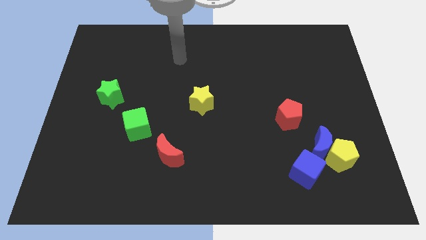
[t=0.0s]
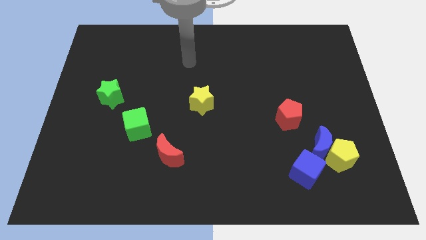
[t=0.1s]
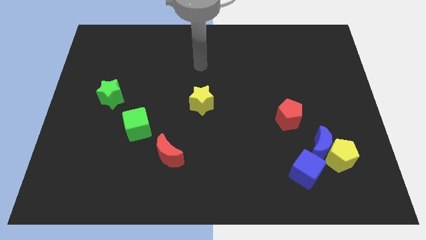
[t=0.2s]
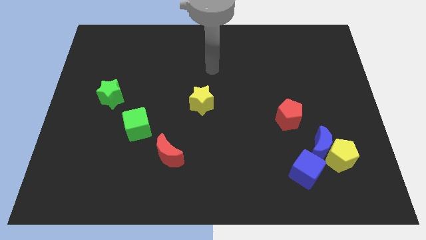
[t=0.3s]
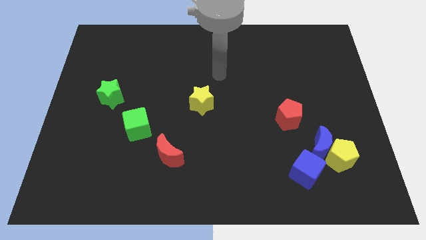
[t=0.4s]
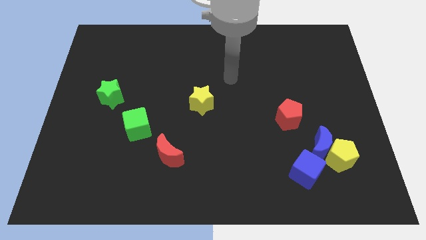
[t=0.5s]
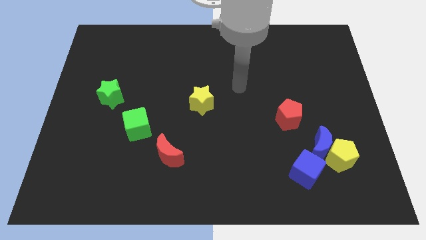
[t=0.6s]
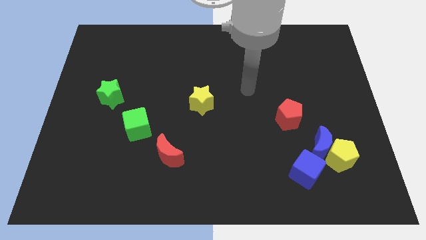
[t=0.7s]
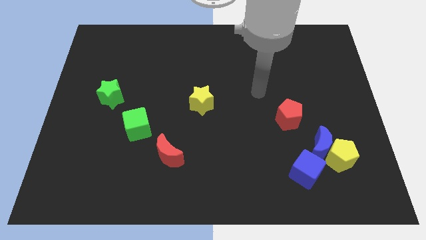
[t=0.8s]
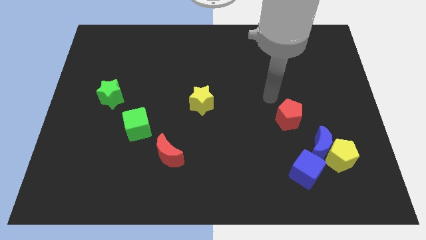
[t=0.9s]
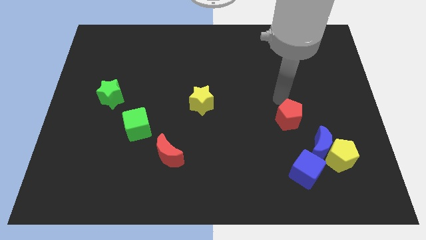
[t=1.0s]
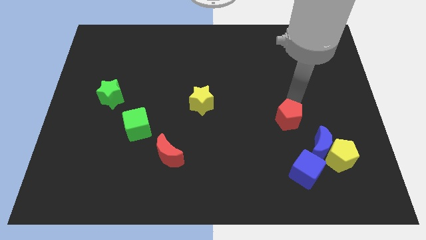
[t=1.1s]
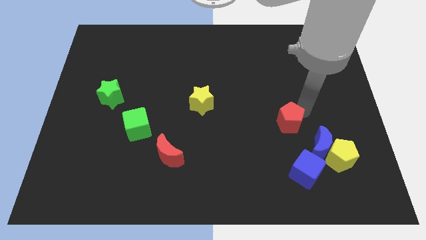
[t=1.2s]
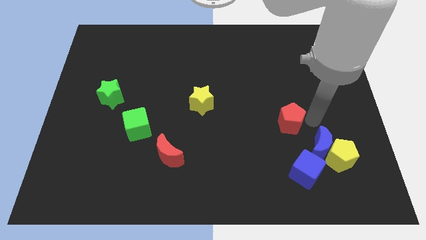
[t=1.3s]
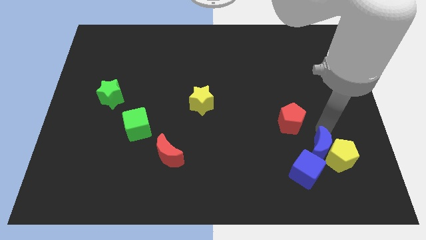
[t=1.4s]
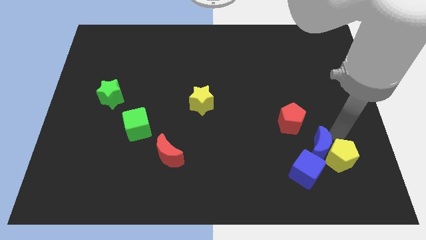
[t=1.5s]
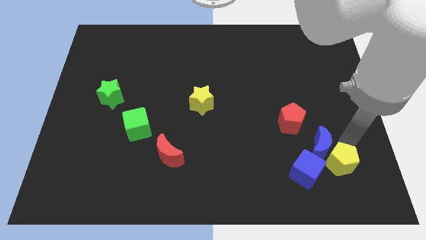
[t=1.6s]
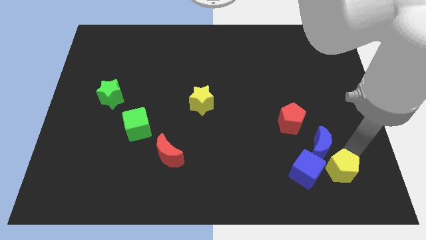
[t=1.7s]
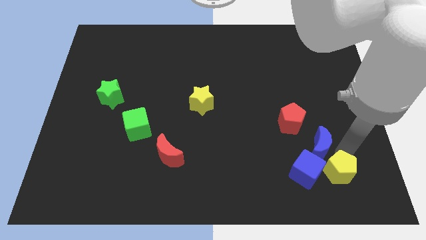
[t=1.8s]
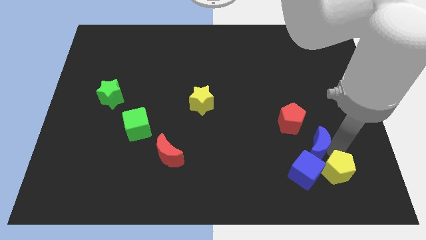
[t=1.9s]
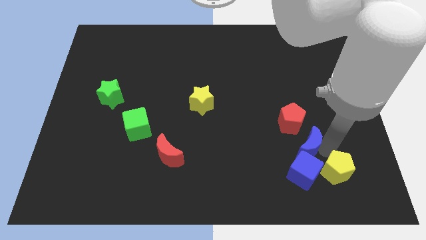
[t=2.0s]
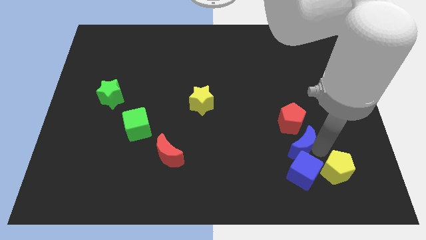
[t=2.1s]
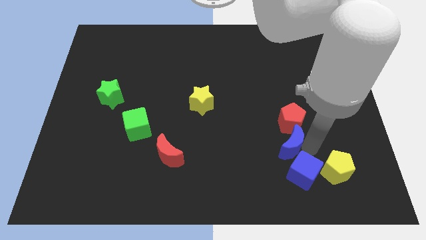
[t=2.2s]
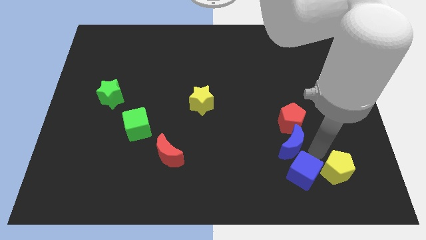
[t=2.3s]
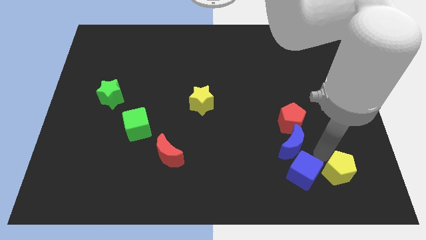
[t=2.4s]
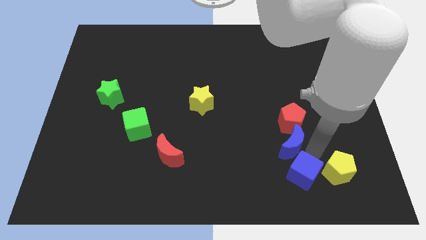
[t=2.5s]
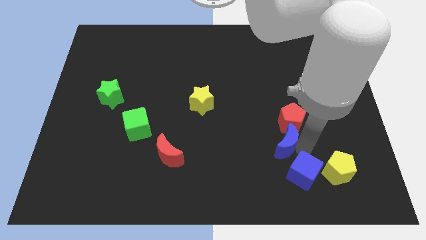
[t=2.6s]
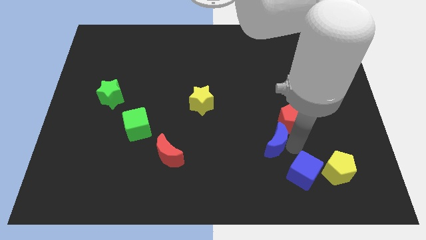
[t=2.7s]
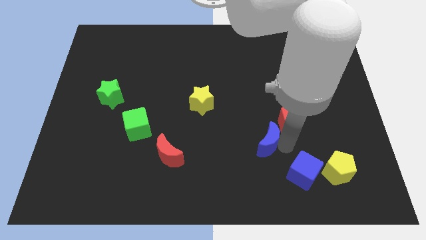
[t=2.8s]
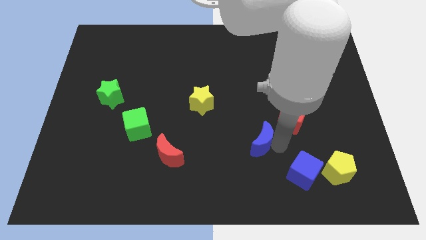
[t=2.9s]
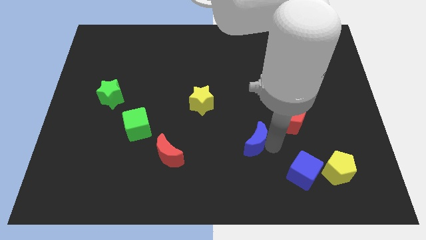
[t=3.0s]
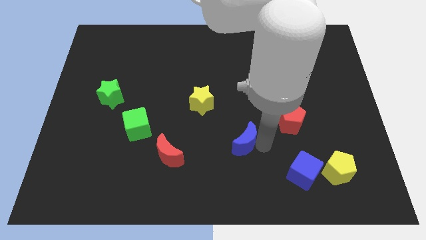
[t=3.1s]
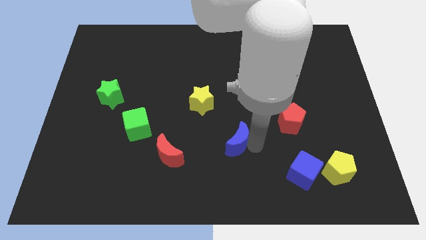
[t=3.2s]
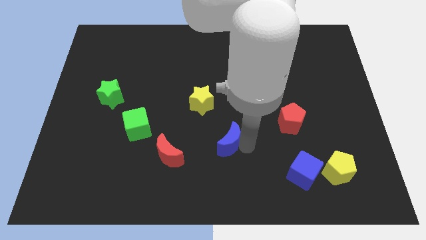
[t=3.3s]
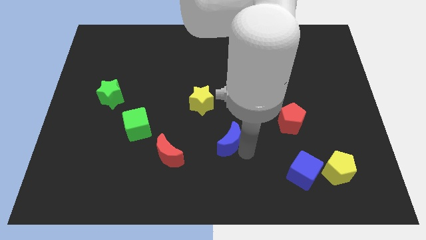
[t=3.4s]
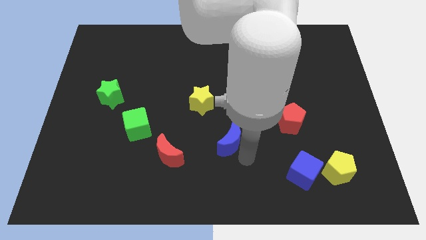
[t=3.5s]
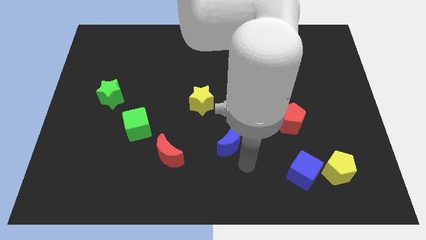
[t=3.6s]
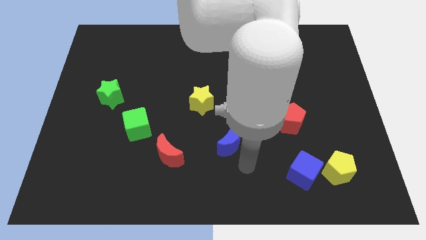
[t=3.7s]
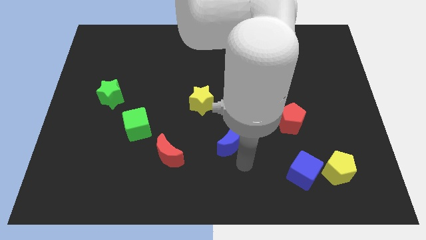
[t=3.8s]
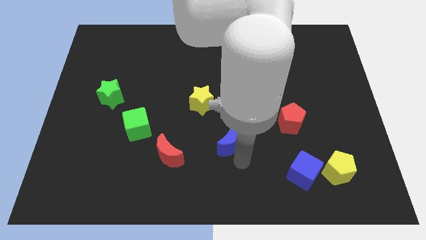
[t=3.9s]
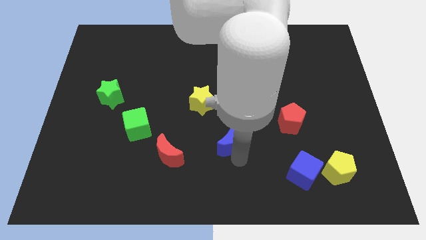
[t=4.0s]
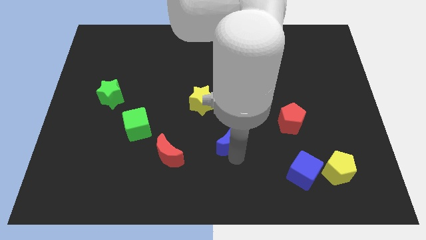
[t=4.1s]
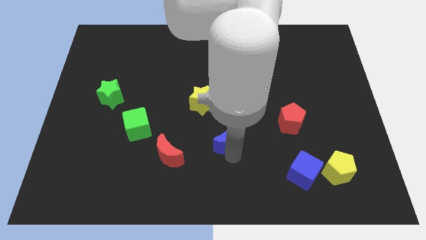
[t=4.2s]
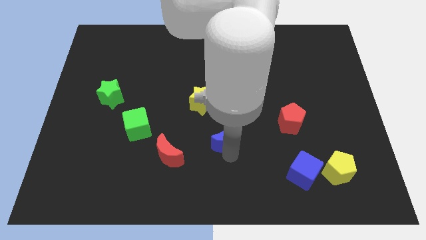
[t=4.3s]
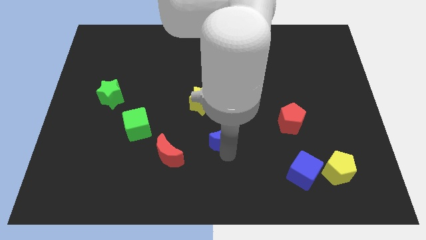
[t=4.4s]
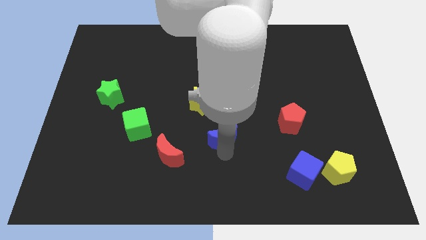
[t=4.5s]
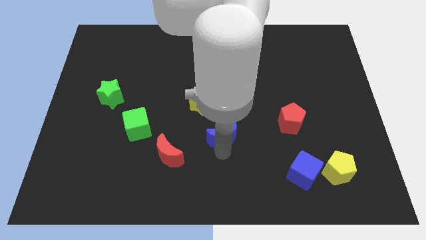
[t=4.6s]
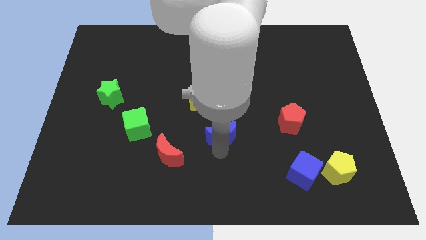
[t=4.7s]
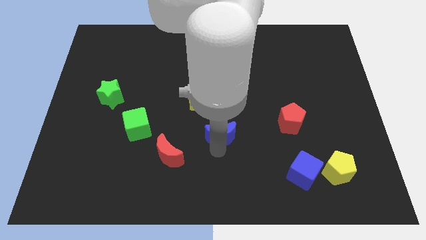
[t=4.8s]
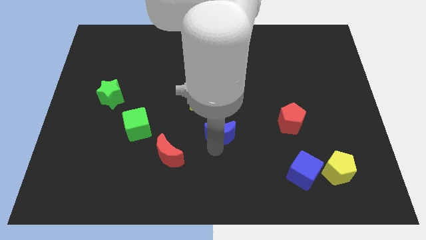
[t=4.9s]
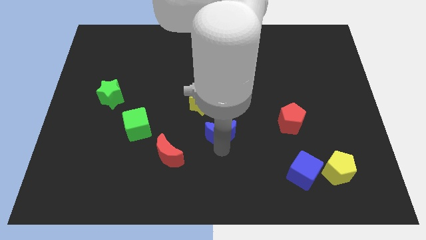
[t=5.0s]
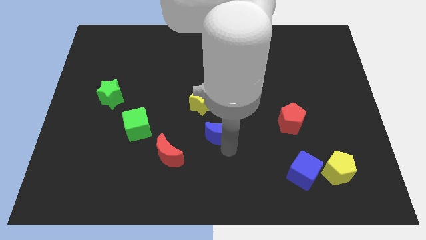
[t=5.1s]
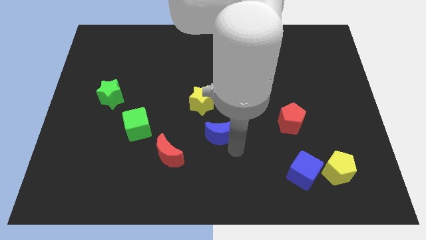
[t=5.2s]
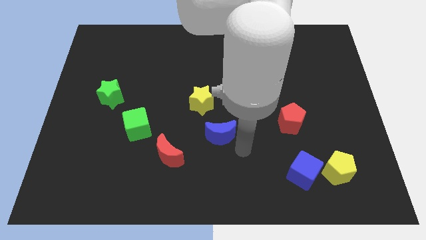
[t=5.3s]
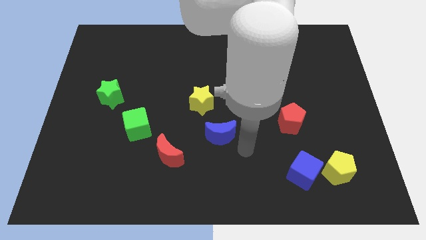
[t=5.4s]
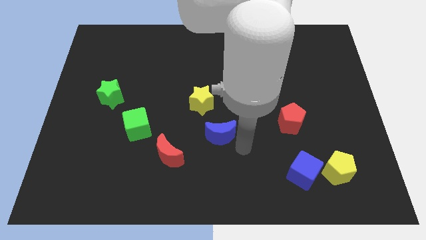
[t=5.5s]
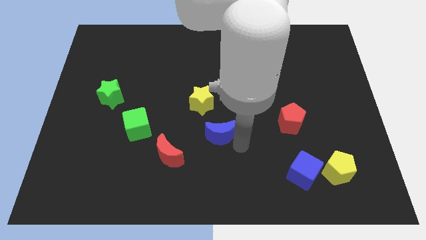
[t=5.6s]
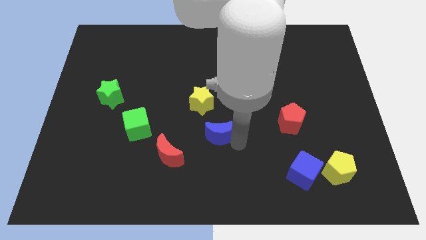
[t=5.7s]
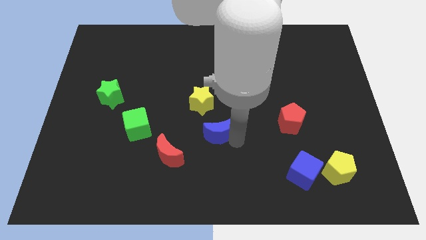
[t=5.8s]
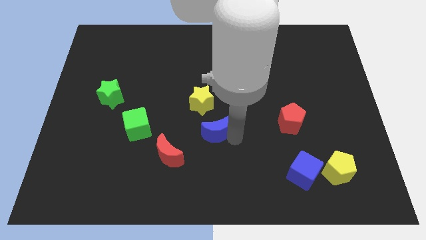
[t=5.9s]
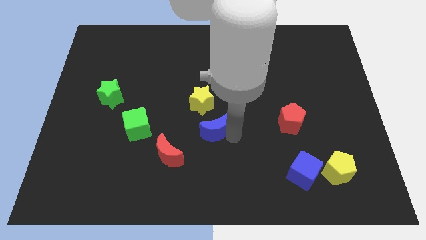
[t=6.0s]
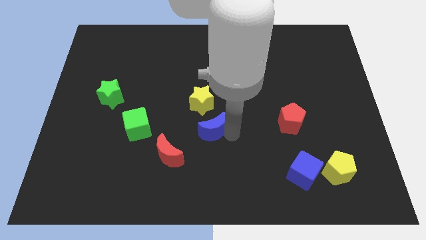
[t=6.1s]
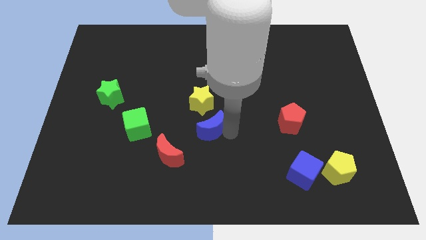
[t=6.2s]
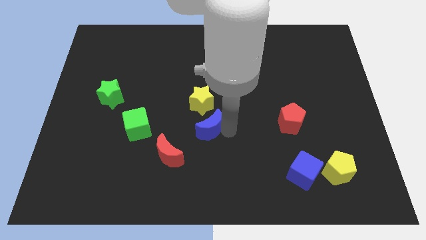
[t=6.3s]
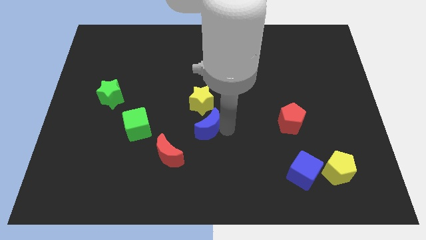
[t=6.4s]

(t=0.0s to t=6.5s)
move the blue moon to the right of the green cube

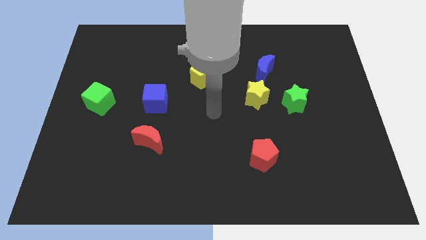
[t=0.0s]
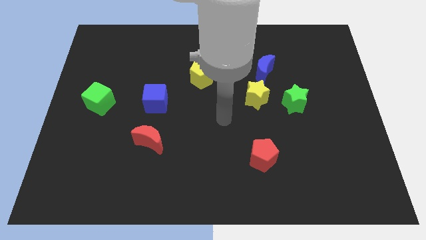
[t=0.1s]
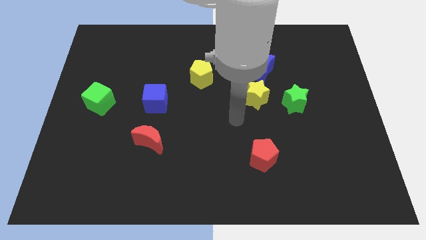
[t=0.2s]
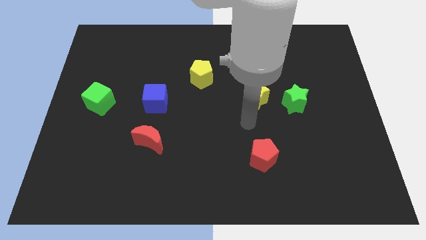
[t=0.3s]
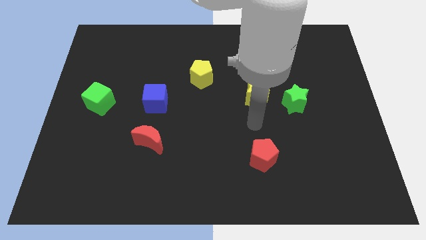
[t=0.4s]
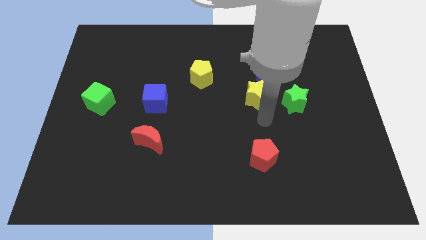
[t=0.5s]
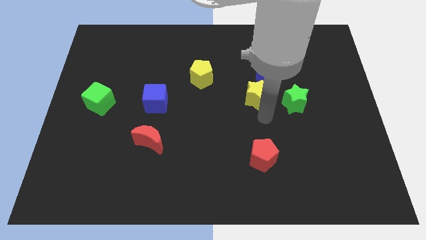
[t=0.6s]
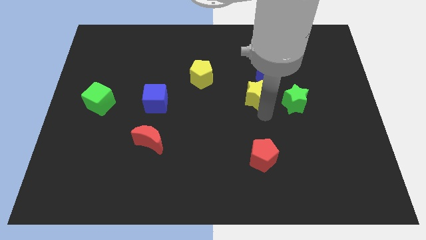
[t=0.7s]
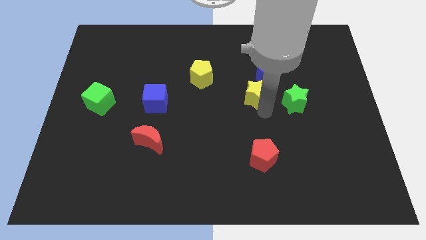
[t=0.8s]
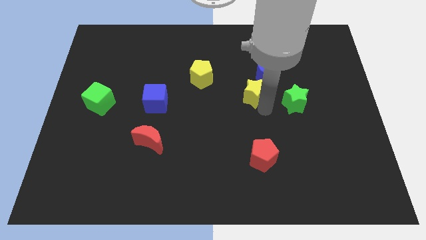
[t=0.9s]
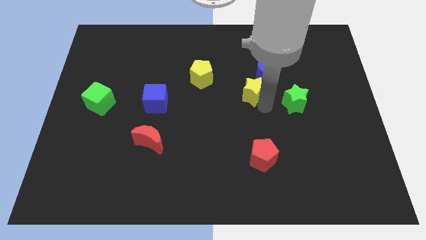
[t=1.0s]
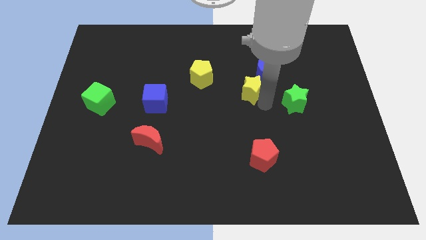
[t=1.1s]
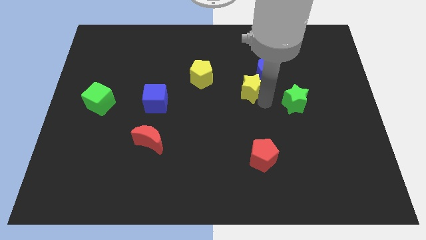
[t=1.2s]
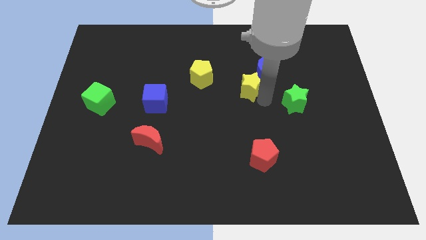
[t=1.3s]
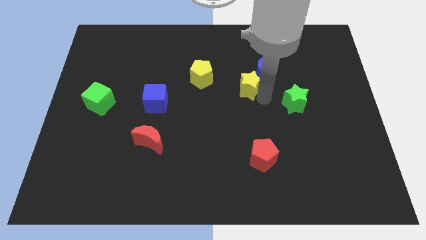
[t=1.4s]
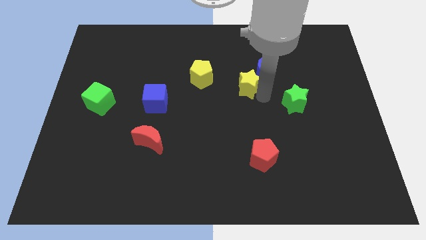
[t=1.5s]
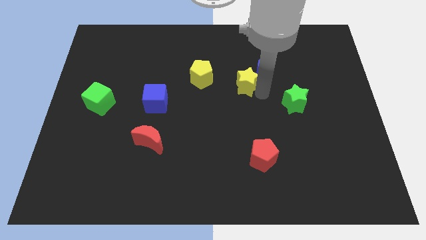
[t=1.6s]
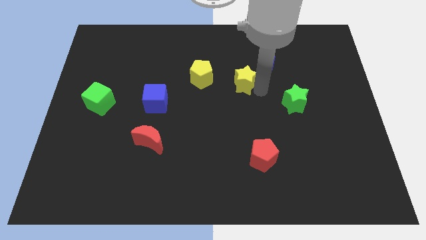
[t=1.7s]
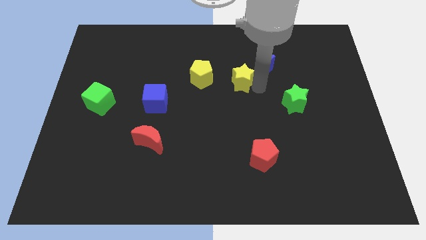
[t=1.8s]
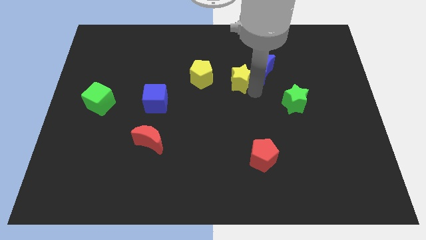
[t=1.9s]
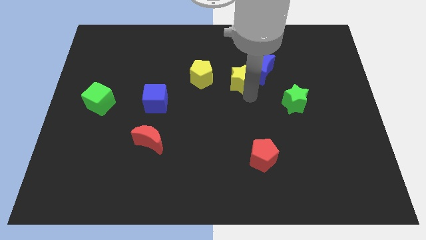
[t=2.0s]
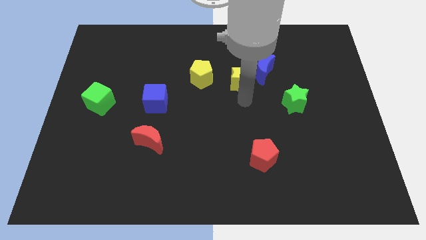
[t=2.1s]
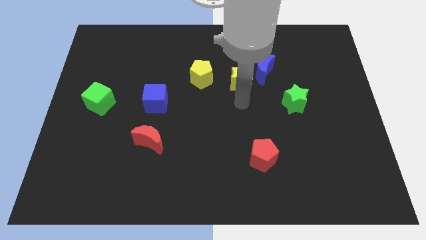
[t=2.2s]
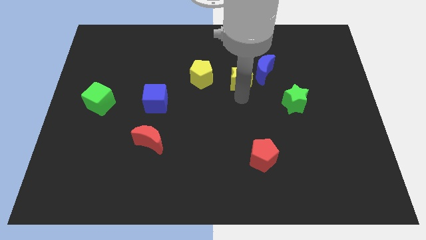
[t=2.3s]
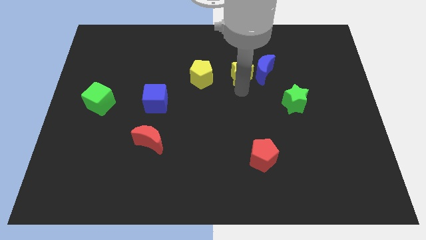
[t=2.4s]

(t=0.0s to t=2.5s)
move the yellow star diagonally up and to the left of the blue moon
